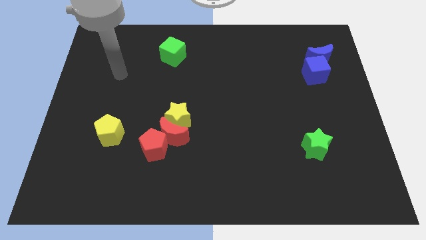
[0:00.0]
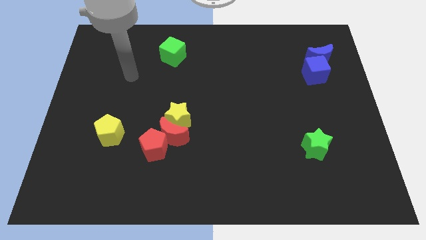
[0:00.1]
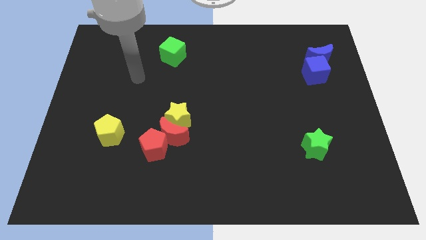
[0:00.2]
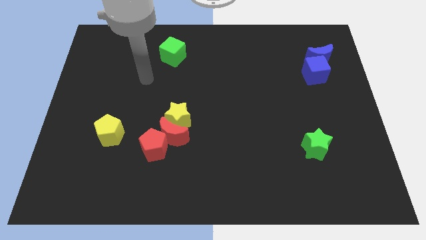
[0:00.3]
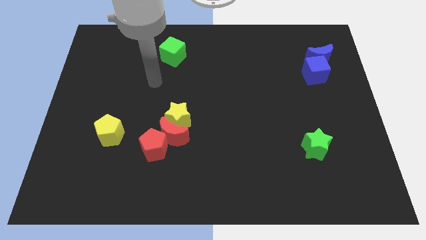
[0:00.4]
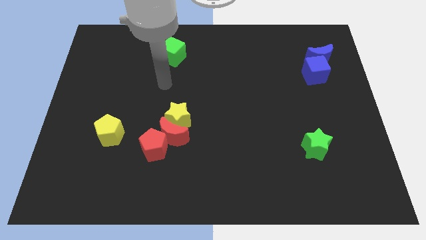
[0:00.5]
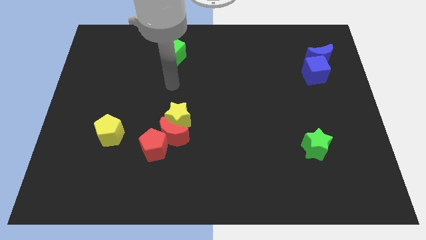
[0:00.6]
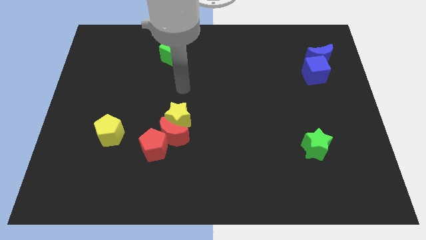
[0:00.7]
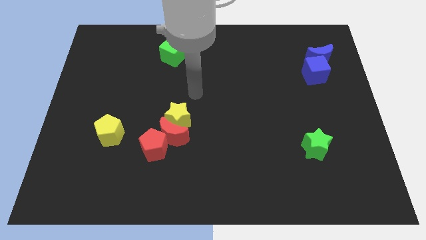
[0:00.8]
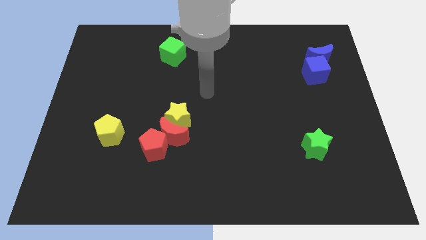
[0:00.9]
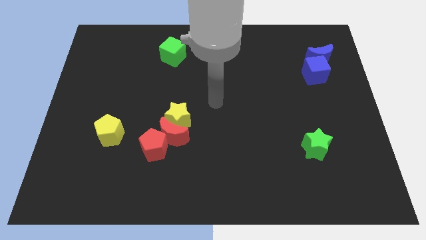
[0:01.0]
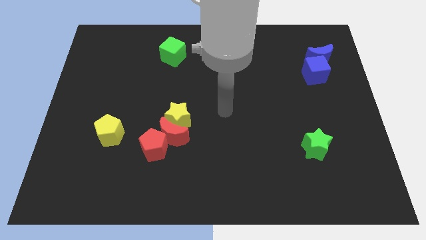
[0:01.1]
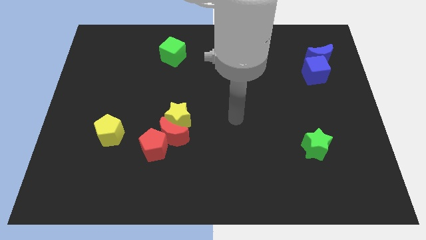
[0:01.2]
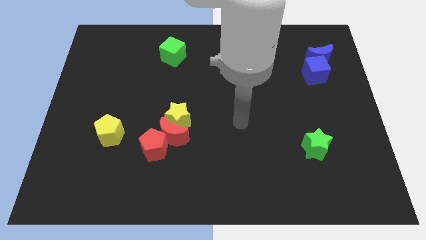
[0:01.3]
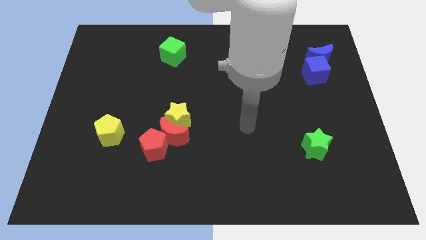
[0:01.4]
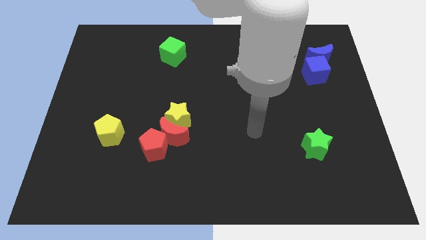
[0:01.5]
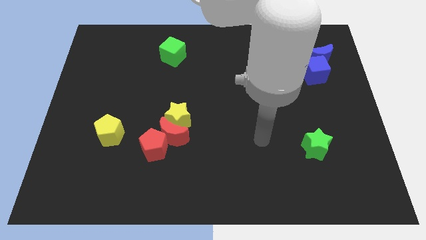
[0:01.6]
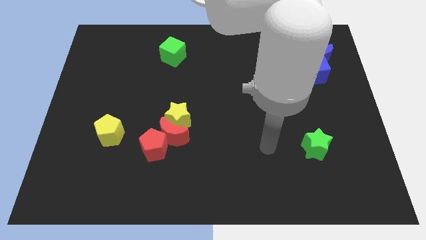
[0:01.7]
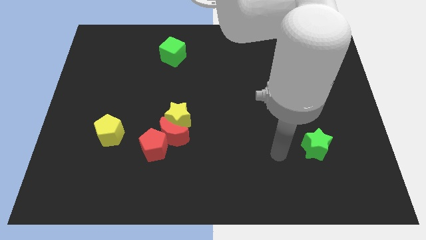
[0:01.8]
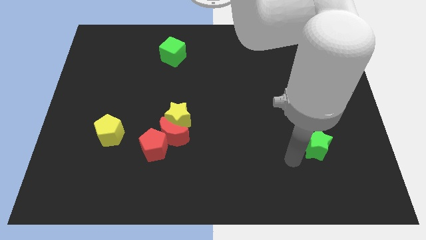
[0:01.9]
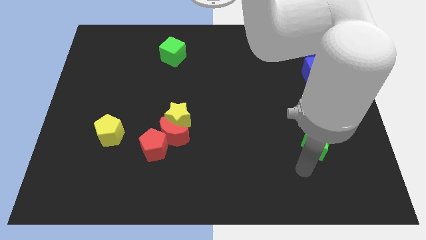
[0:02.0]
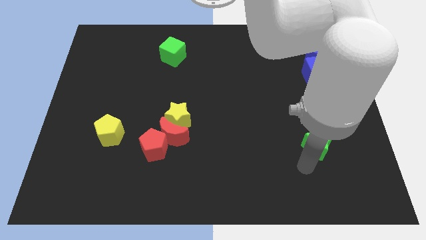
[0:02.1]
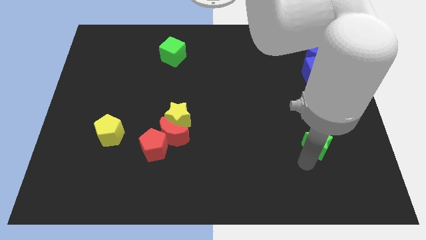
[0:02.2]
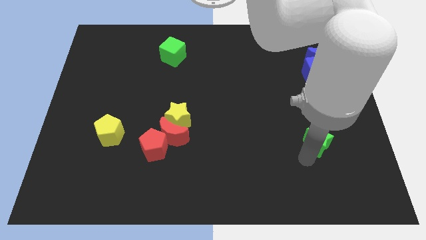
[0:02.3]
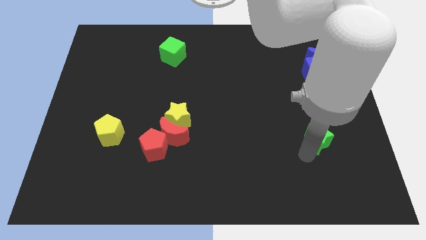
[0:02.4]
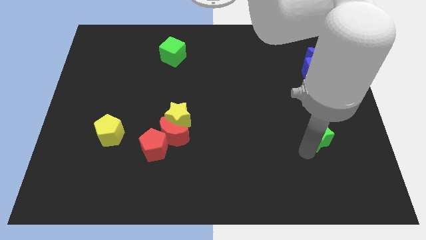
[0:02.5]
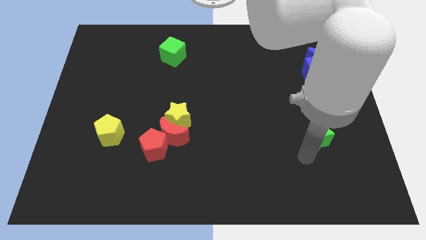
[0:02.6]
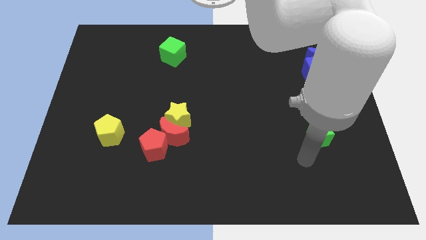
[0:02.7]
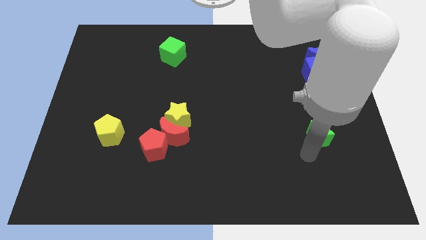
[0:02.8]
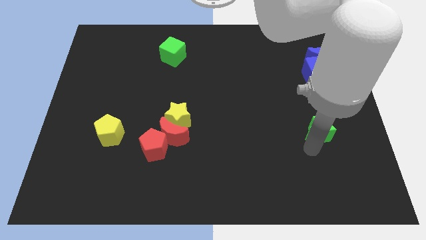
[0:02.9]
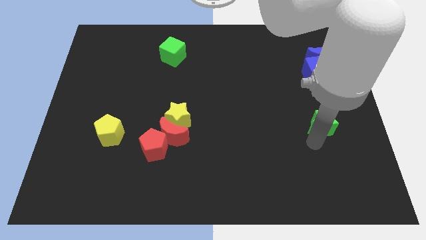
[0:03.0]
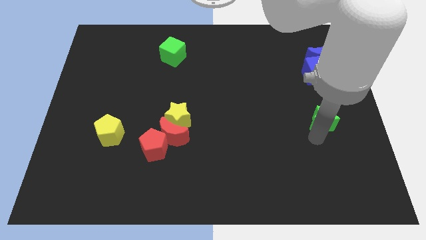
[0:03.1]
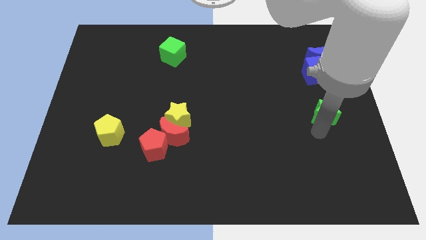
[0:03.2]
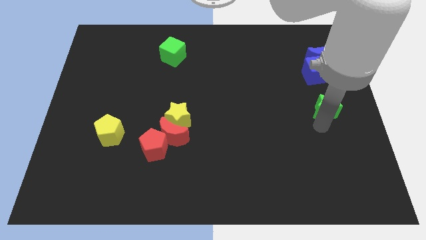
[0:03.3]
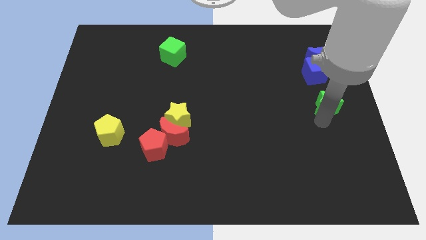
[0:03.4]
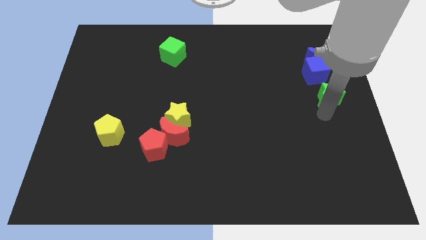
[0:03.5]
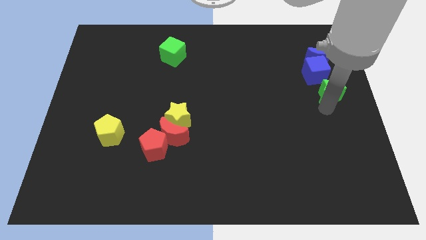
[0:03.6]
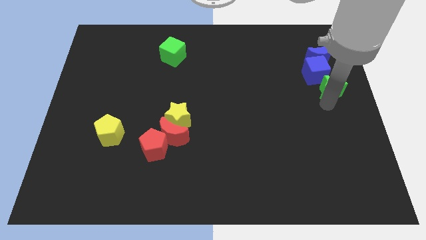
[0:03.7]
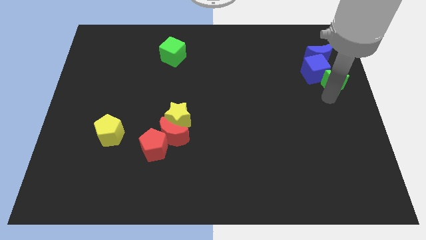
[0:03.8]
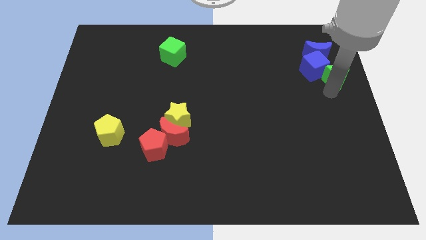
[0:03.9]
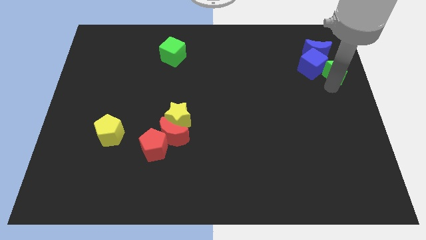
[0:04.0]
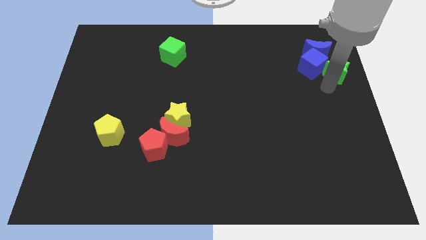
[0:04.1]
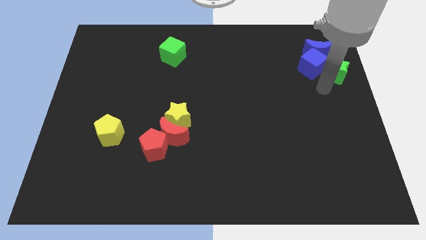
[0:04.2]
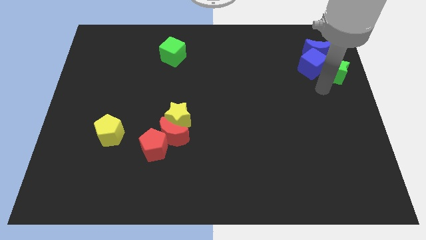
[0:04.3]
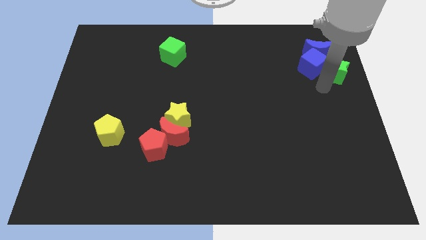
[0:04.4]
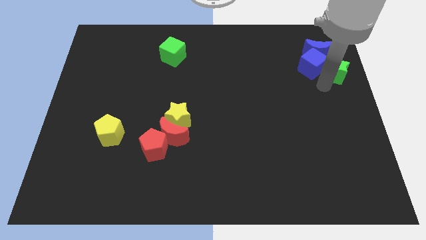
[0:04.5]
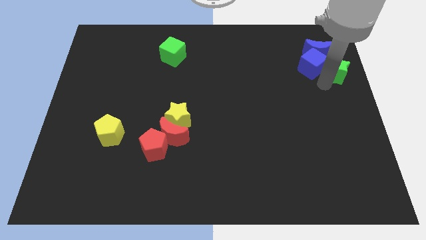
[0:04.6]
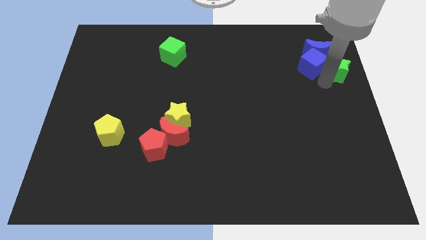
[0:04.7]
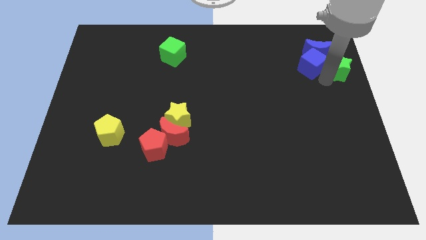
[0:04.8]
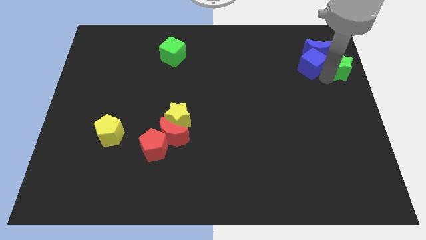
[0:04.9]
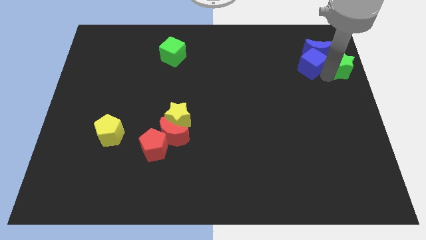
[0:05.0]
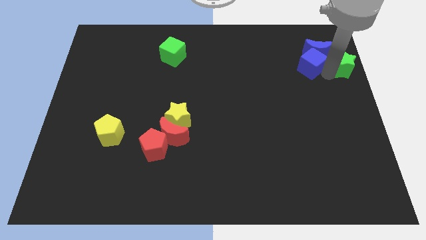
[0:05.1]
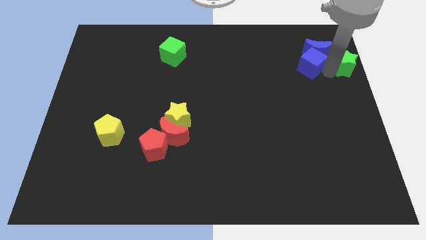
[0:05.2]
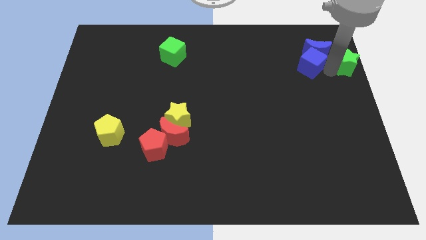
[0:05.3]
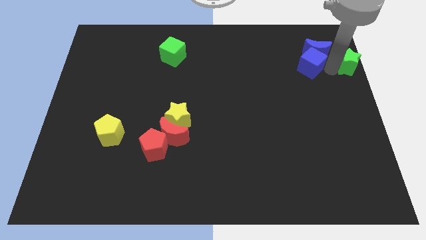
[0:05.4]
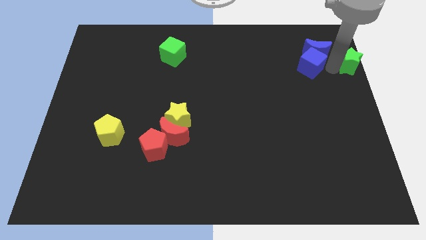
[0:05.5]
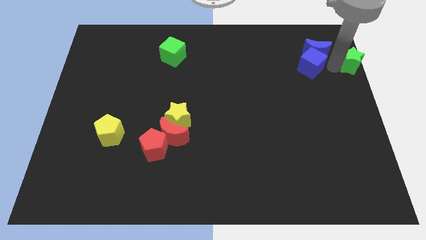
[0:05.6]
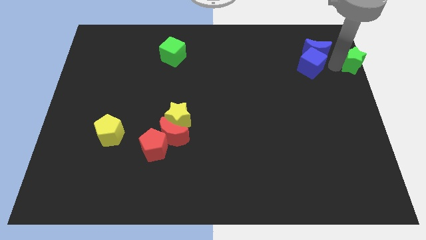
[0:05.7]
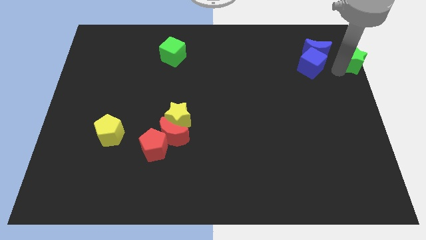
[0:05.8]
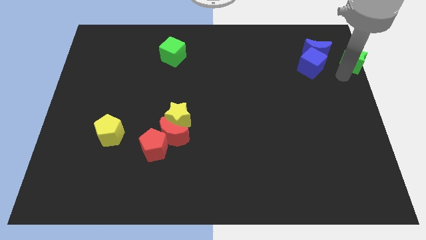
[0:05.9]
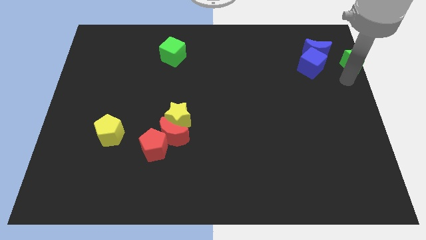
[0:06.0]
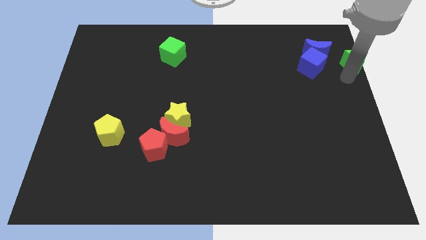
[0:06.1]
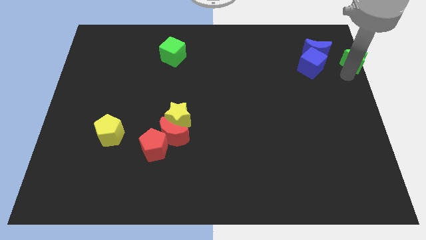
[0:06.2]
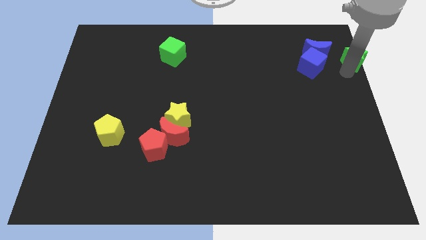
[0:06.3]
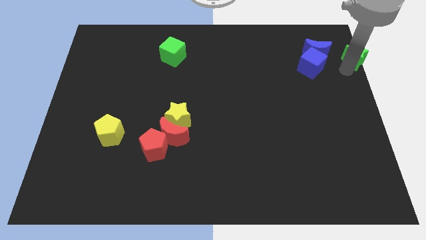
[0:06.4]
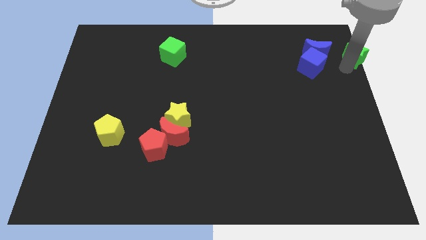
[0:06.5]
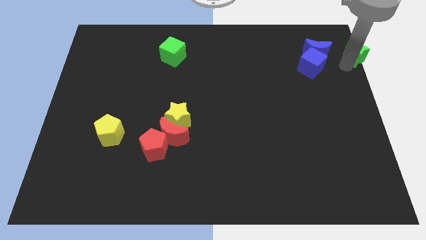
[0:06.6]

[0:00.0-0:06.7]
move the green star to the top right corner
